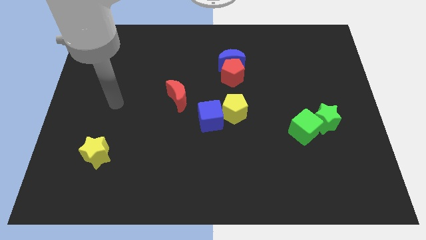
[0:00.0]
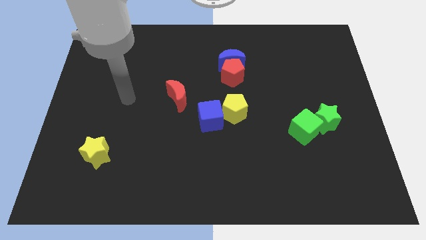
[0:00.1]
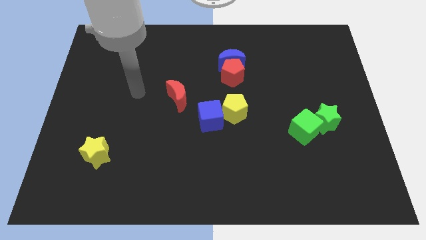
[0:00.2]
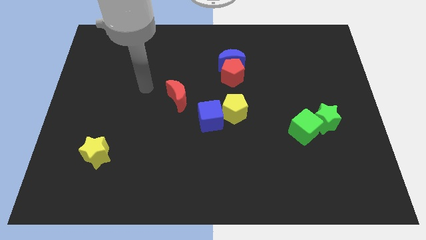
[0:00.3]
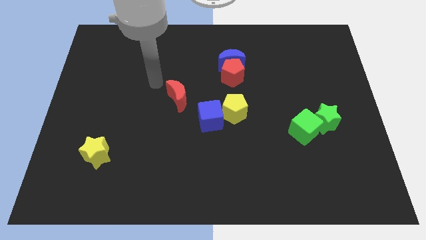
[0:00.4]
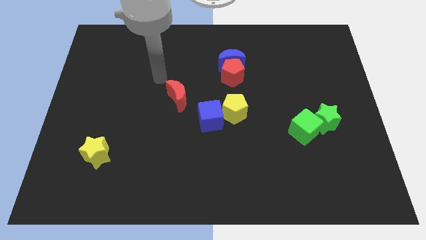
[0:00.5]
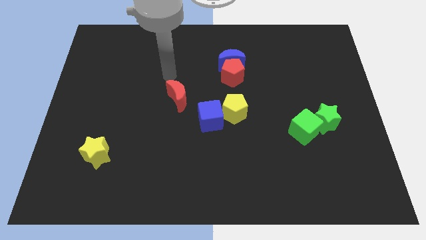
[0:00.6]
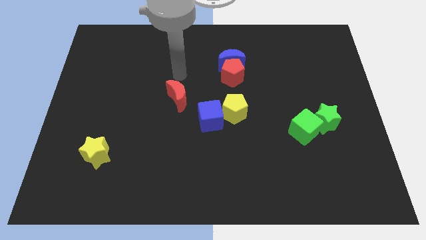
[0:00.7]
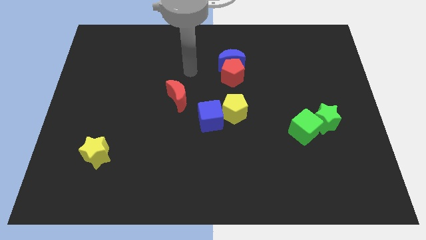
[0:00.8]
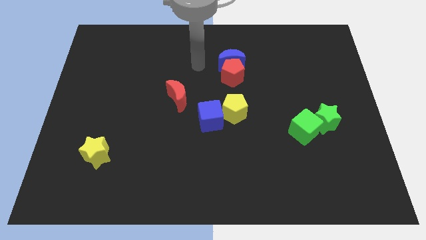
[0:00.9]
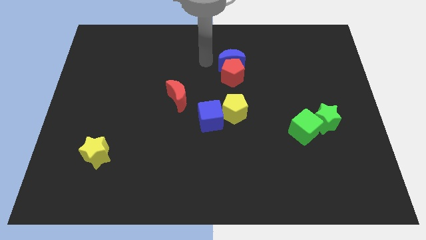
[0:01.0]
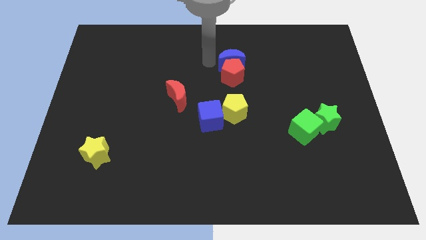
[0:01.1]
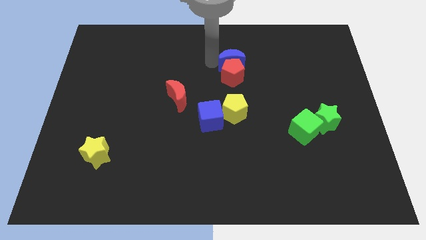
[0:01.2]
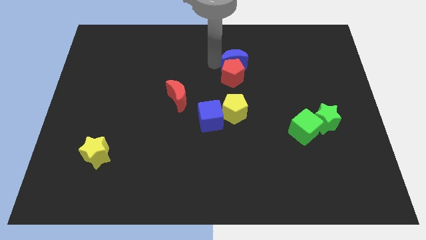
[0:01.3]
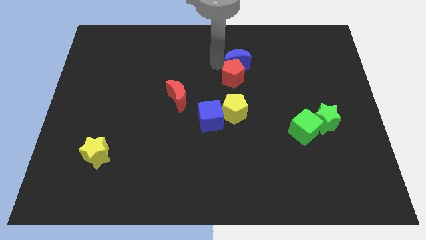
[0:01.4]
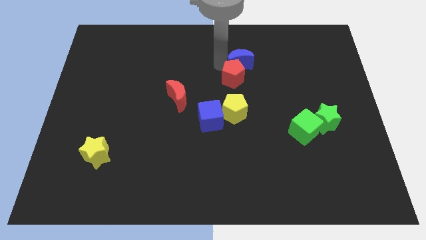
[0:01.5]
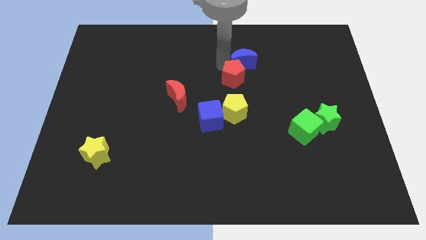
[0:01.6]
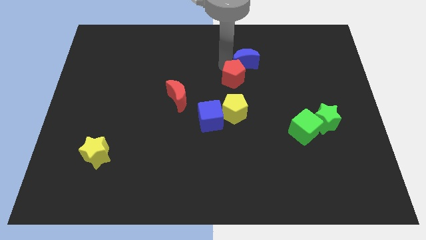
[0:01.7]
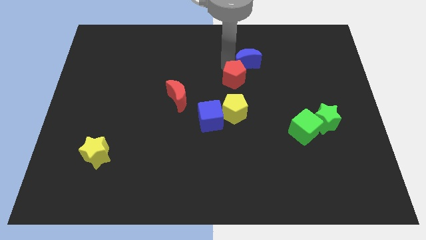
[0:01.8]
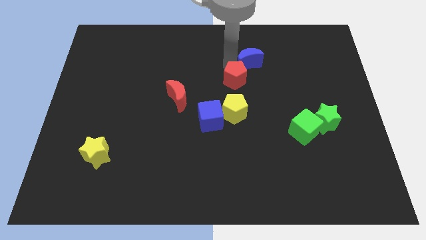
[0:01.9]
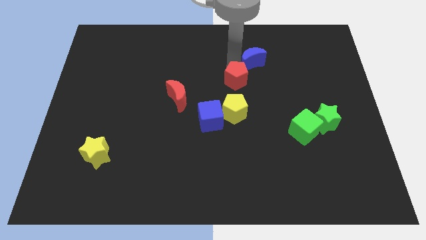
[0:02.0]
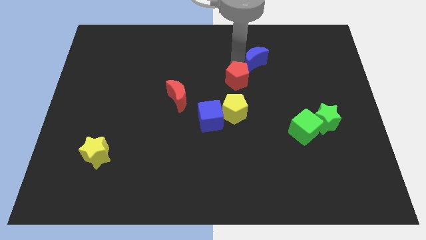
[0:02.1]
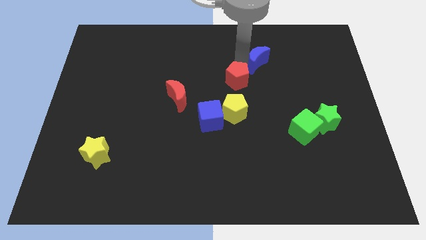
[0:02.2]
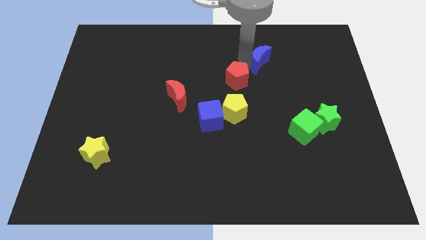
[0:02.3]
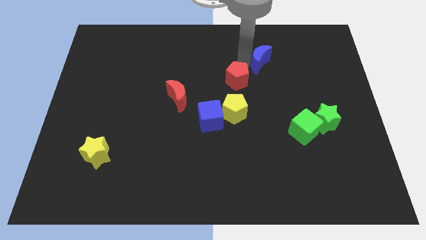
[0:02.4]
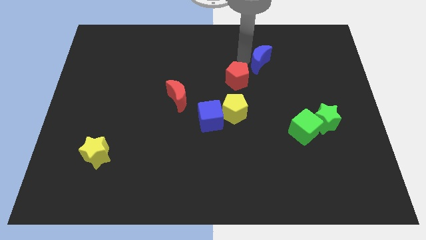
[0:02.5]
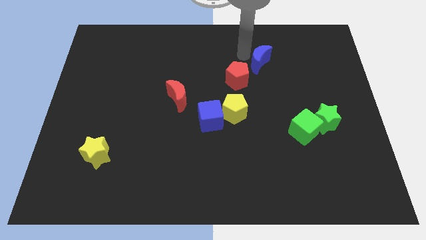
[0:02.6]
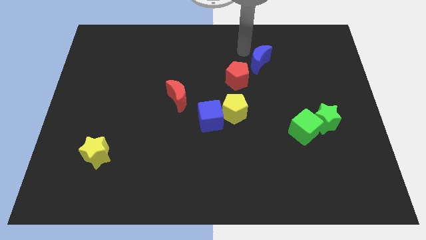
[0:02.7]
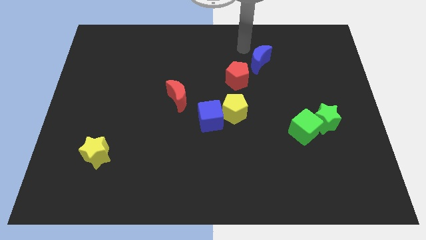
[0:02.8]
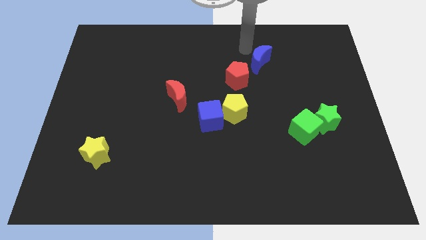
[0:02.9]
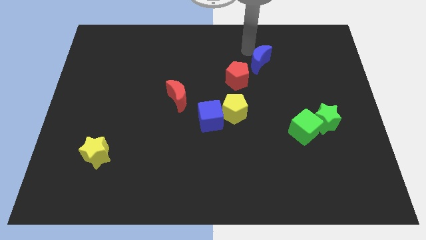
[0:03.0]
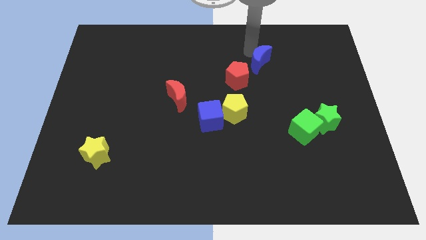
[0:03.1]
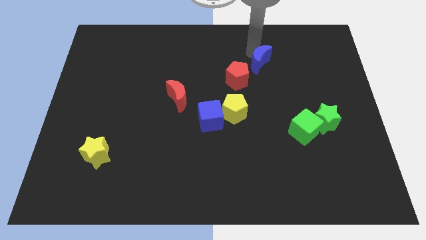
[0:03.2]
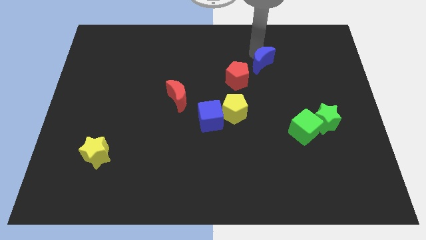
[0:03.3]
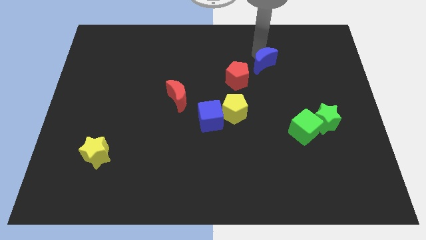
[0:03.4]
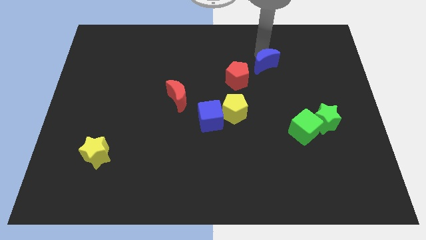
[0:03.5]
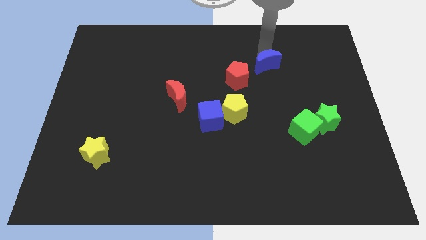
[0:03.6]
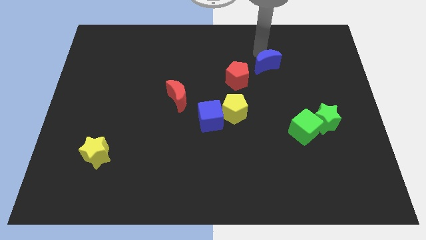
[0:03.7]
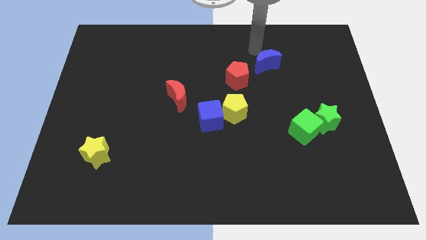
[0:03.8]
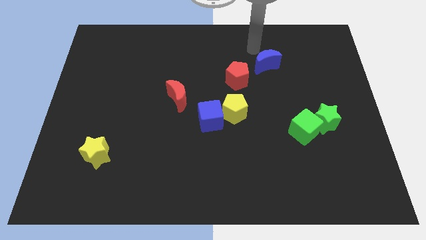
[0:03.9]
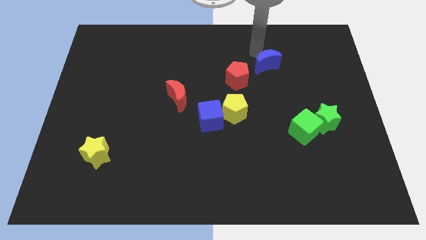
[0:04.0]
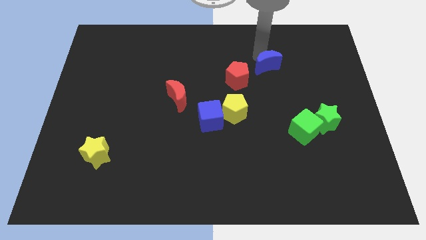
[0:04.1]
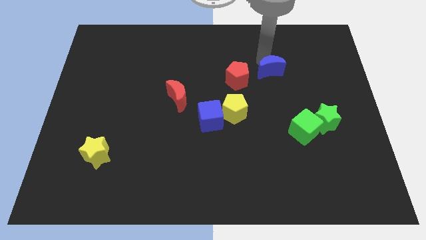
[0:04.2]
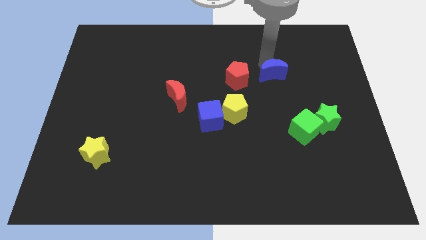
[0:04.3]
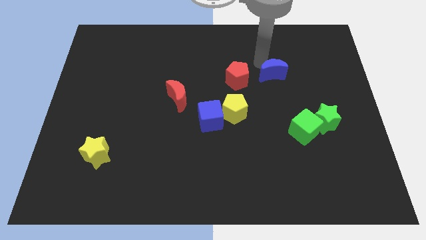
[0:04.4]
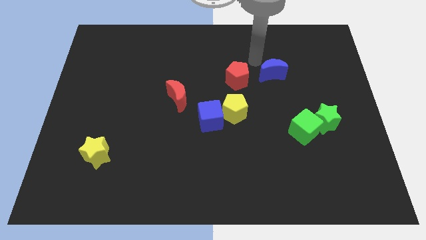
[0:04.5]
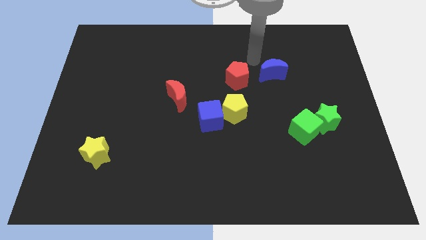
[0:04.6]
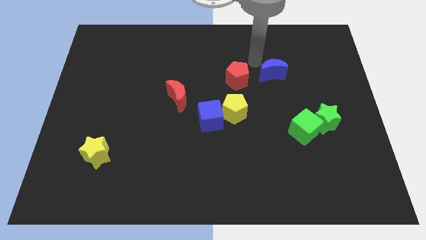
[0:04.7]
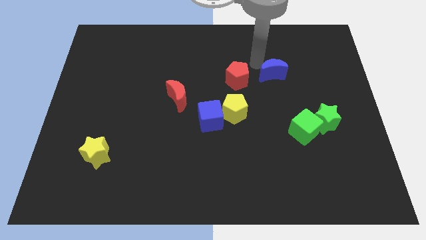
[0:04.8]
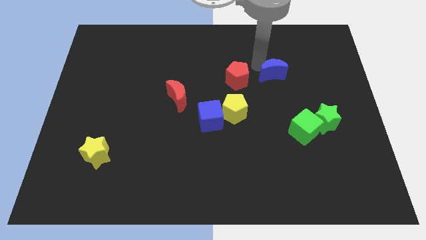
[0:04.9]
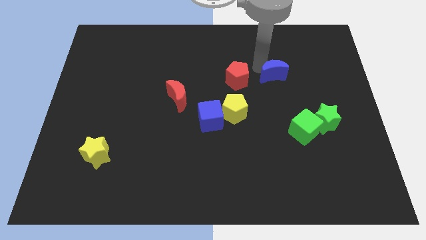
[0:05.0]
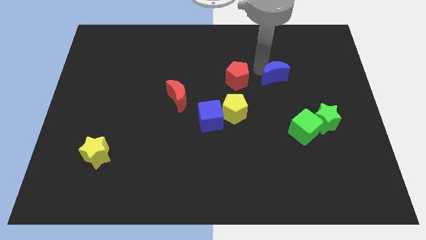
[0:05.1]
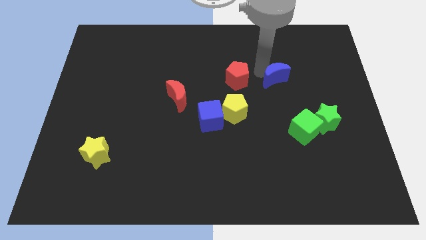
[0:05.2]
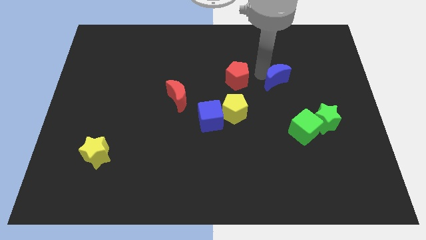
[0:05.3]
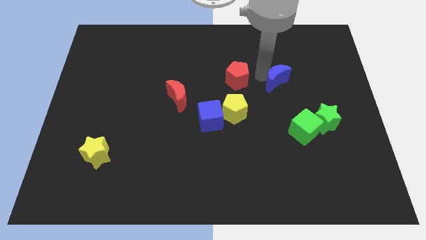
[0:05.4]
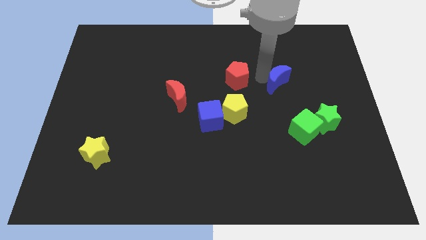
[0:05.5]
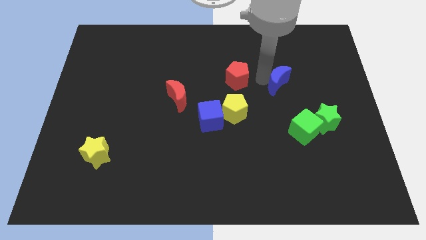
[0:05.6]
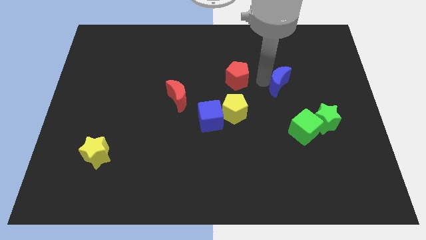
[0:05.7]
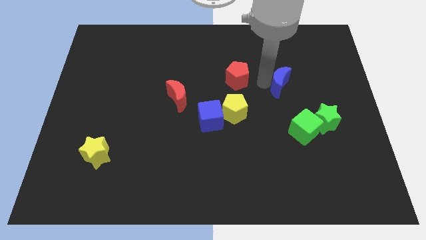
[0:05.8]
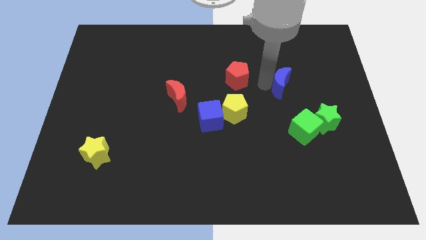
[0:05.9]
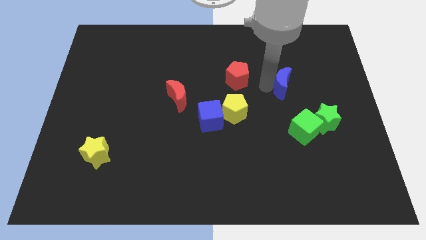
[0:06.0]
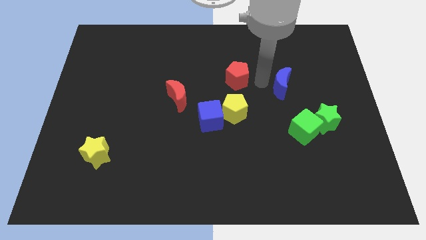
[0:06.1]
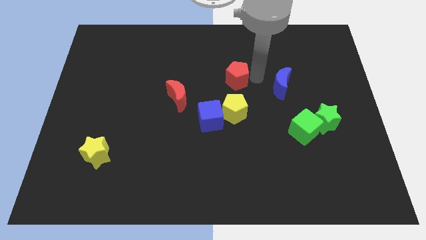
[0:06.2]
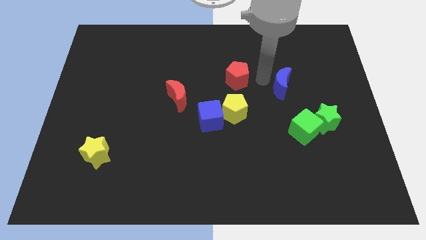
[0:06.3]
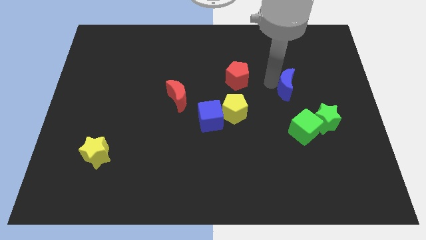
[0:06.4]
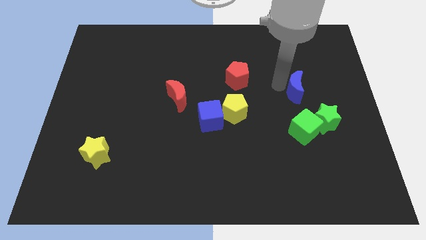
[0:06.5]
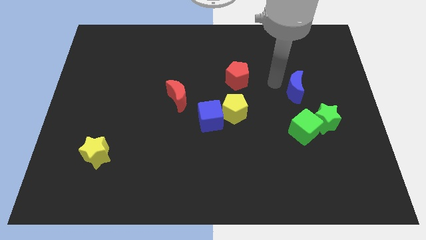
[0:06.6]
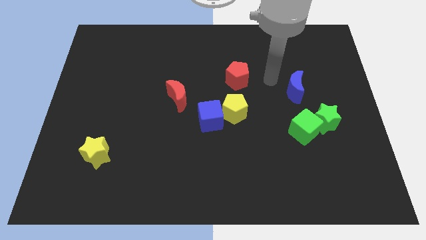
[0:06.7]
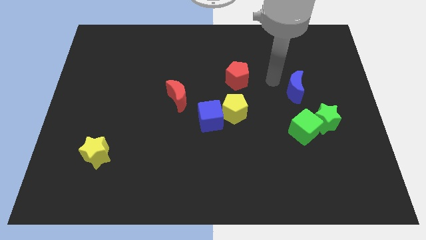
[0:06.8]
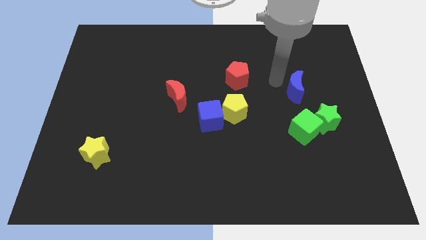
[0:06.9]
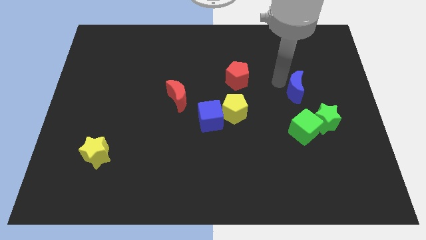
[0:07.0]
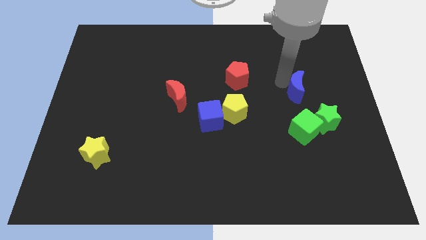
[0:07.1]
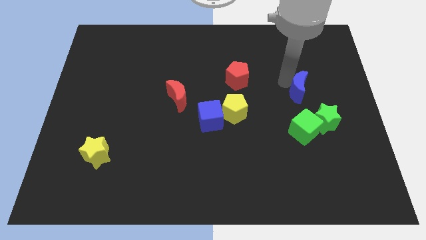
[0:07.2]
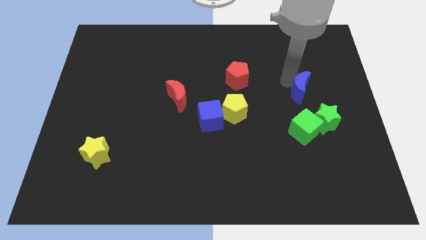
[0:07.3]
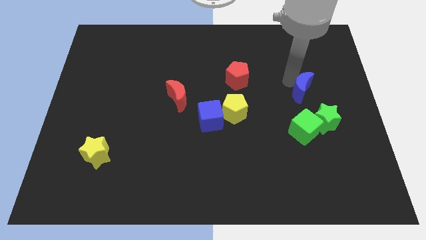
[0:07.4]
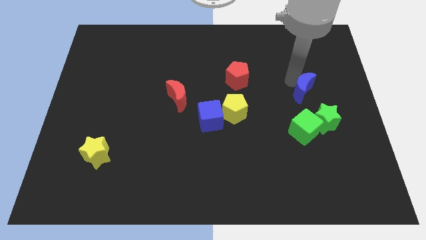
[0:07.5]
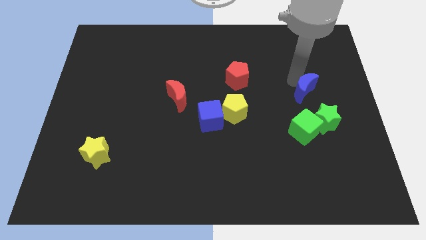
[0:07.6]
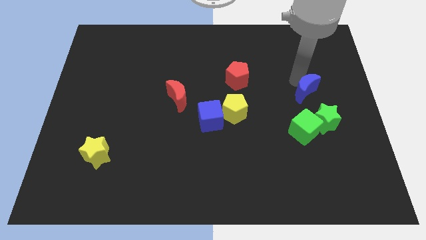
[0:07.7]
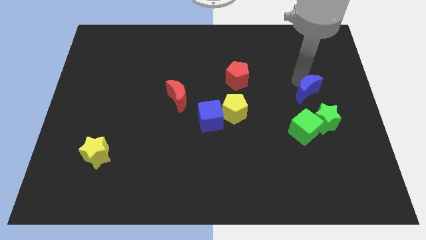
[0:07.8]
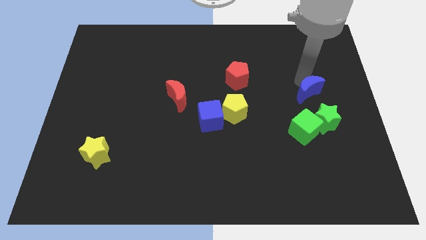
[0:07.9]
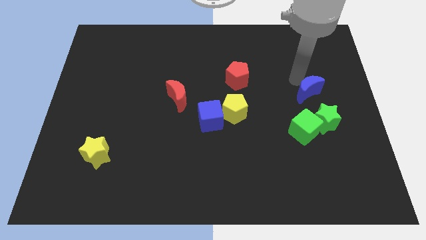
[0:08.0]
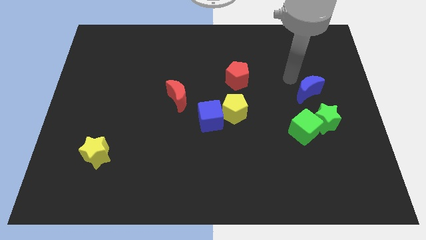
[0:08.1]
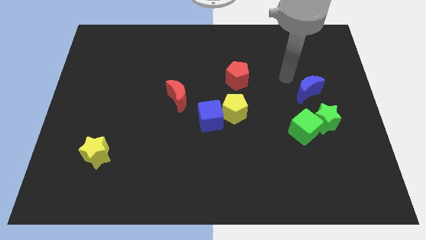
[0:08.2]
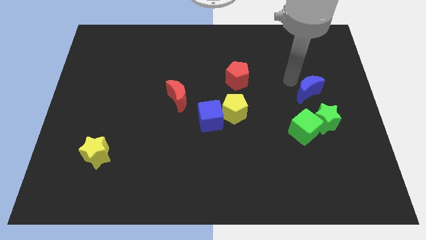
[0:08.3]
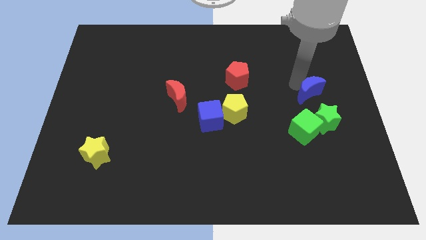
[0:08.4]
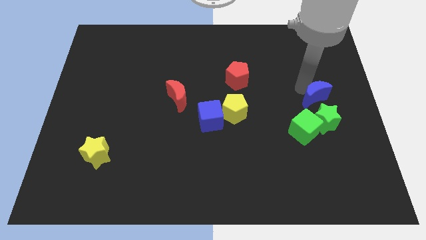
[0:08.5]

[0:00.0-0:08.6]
move the blue moon down and then to the right
